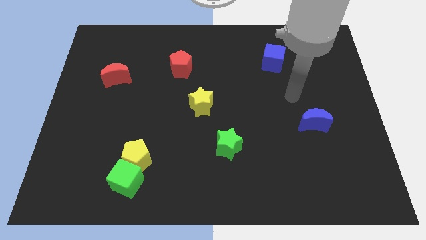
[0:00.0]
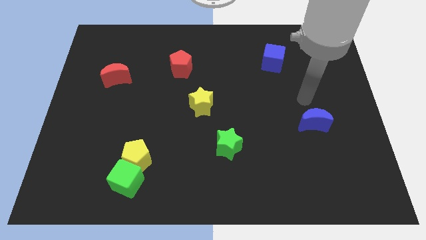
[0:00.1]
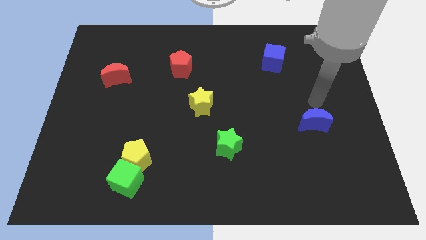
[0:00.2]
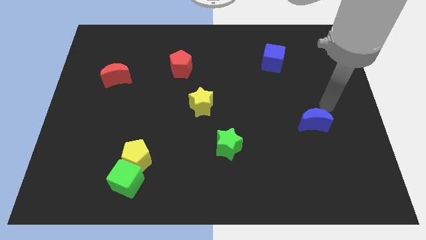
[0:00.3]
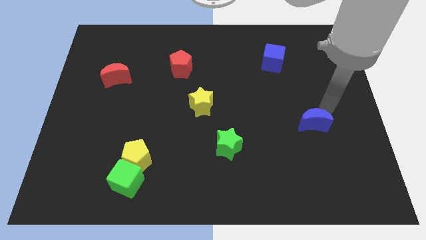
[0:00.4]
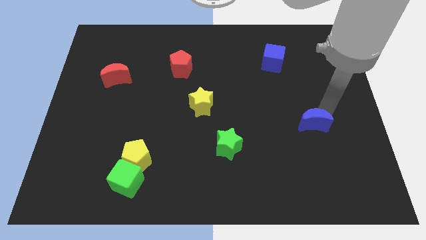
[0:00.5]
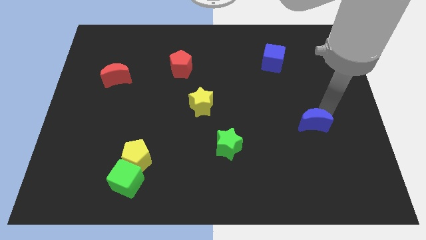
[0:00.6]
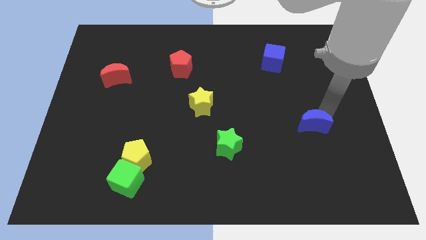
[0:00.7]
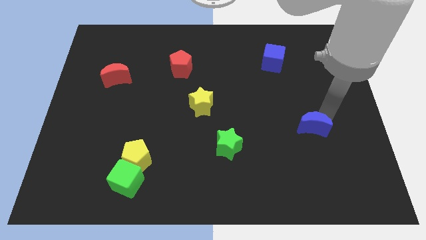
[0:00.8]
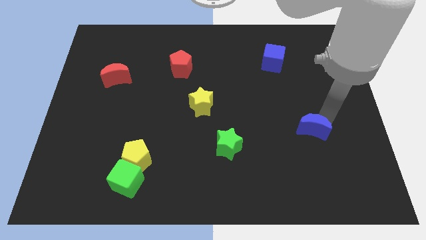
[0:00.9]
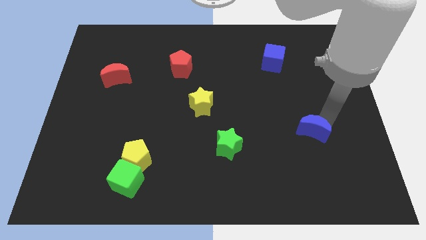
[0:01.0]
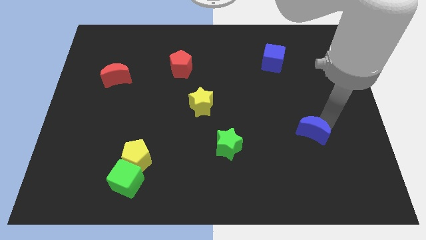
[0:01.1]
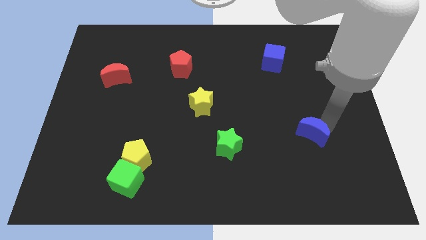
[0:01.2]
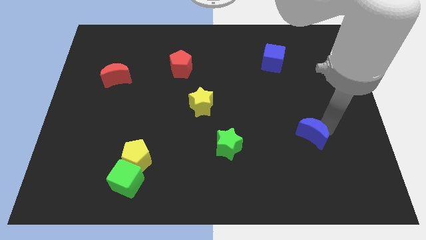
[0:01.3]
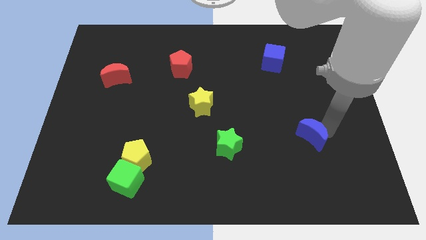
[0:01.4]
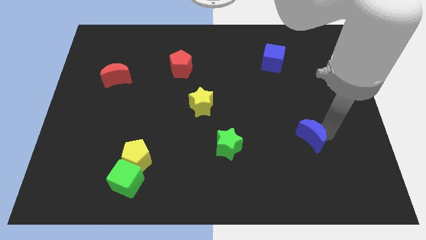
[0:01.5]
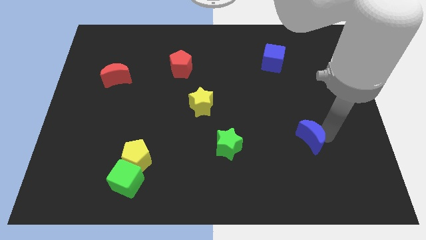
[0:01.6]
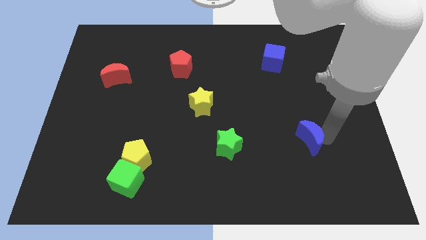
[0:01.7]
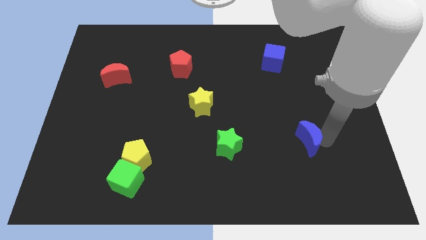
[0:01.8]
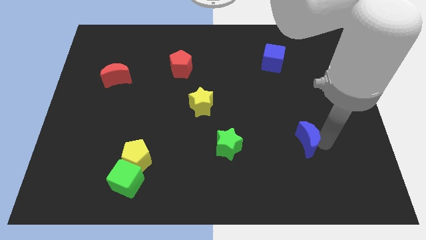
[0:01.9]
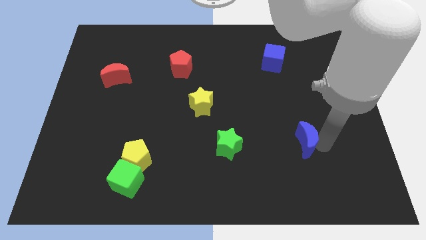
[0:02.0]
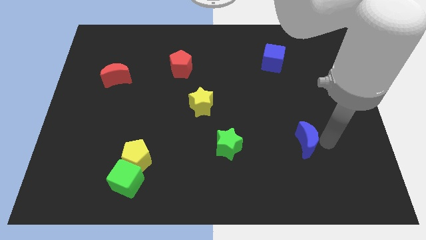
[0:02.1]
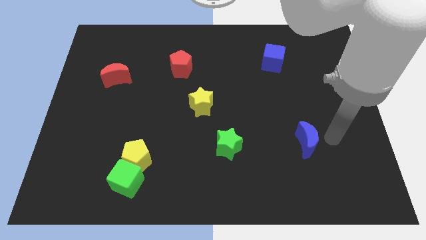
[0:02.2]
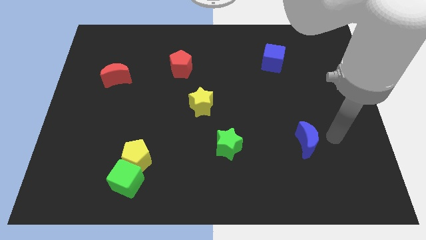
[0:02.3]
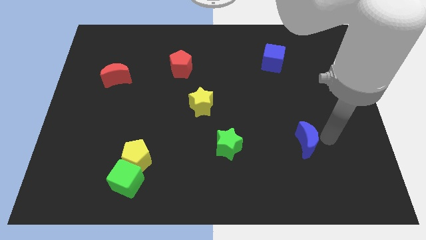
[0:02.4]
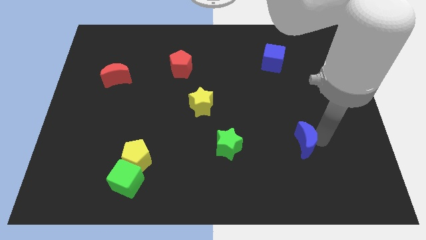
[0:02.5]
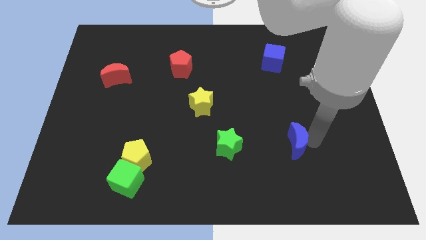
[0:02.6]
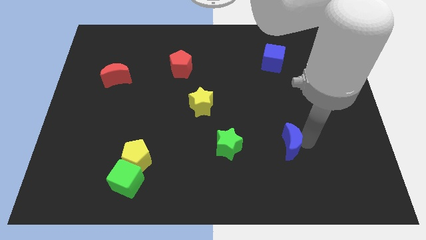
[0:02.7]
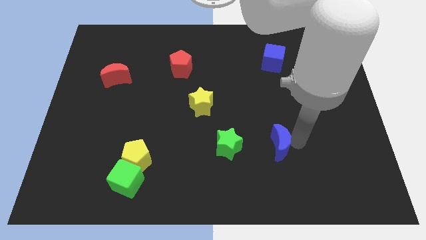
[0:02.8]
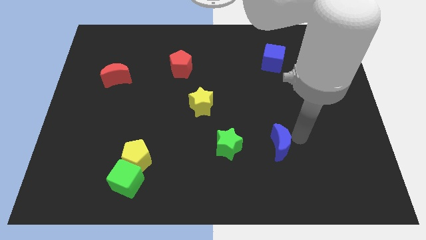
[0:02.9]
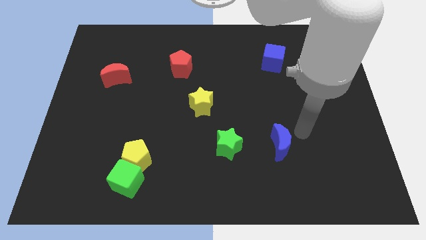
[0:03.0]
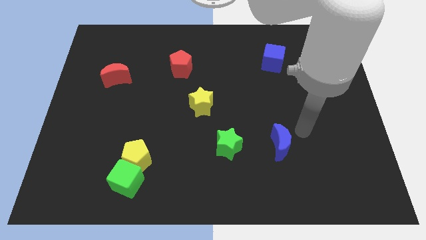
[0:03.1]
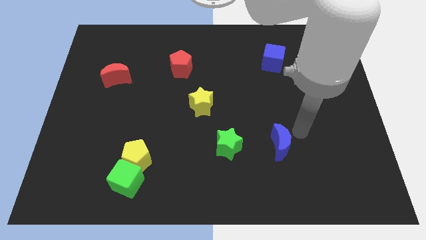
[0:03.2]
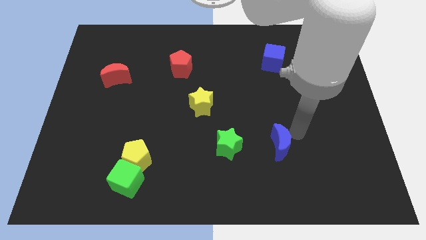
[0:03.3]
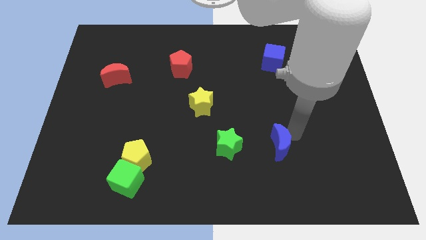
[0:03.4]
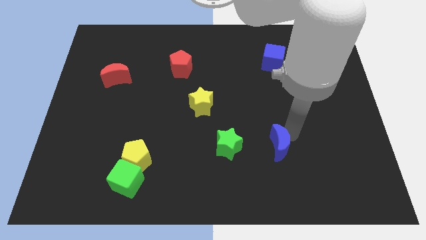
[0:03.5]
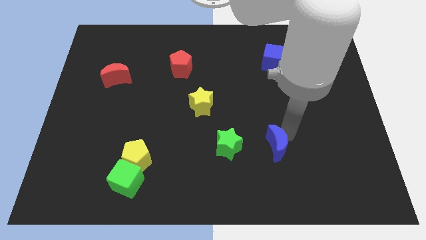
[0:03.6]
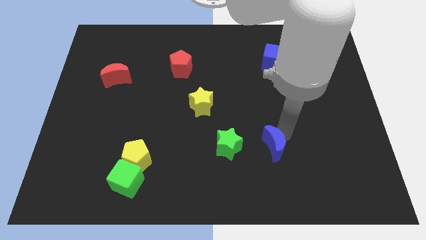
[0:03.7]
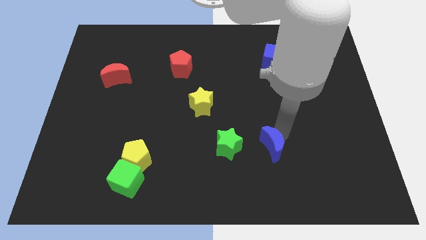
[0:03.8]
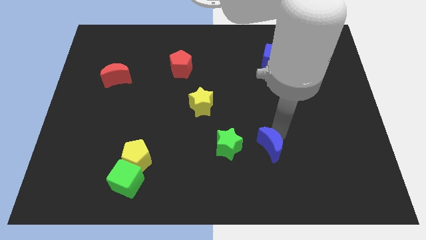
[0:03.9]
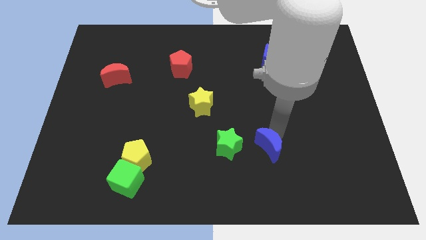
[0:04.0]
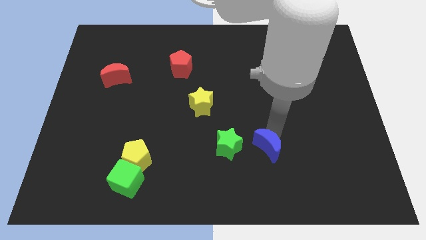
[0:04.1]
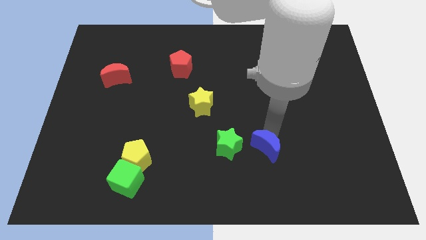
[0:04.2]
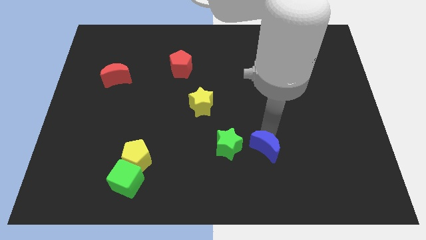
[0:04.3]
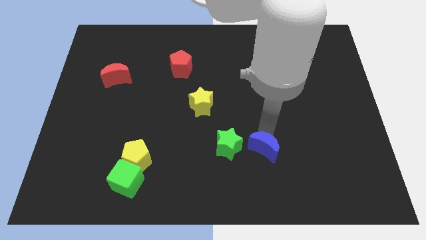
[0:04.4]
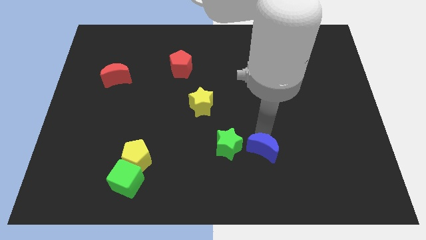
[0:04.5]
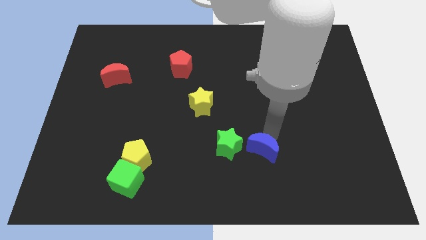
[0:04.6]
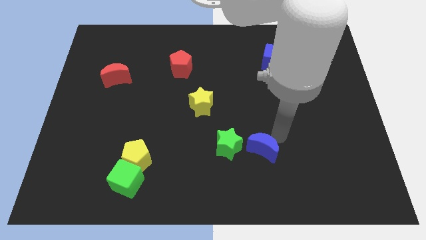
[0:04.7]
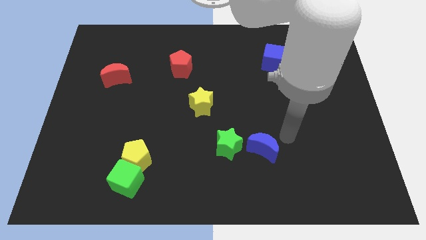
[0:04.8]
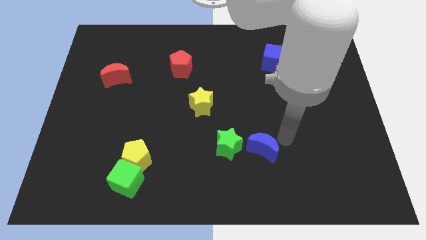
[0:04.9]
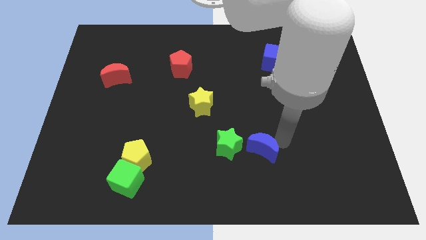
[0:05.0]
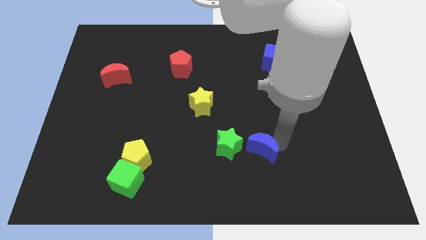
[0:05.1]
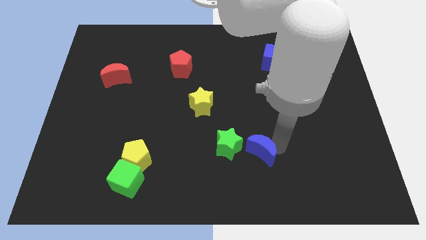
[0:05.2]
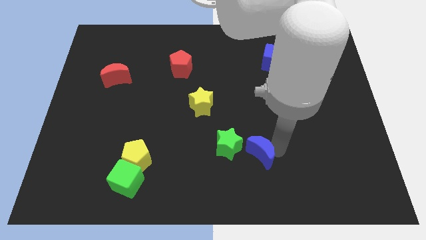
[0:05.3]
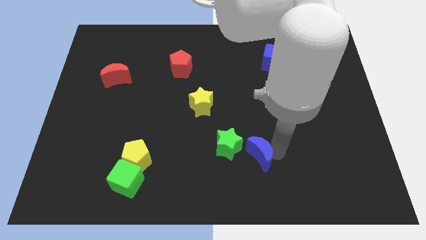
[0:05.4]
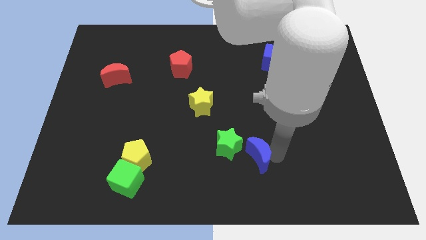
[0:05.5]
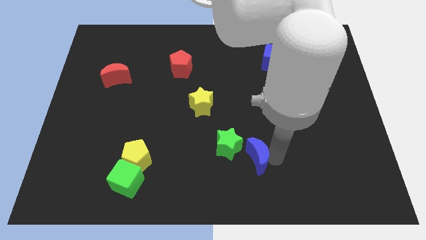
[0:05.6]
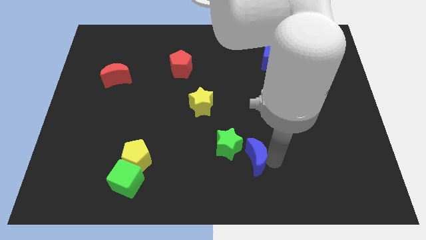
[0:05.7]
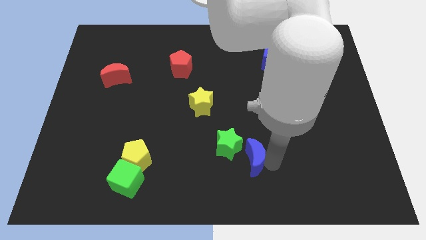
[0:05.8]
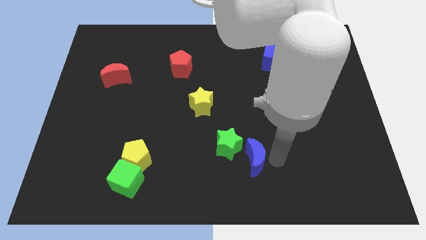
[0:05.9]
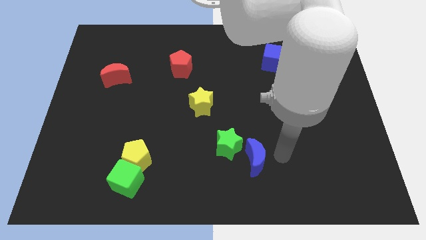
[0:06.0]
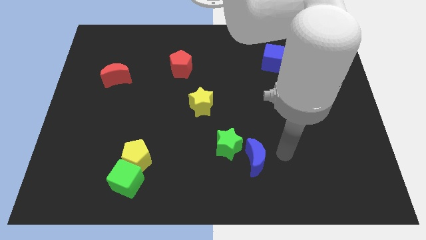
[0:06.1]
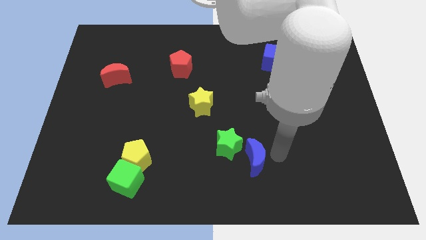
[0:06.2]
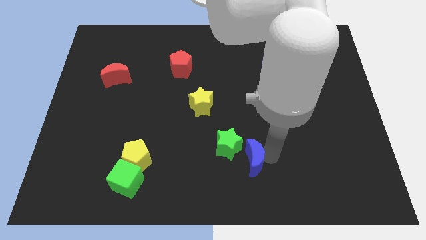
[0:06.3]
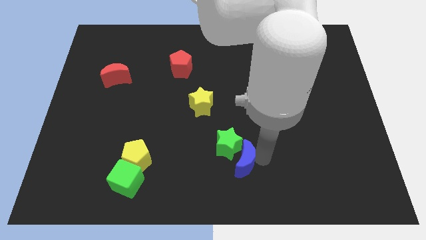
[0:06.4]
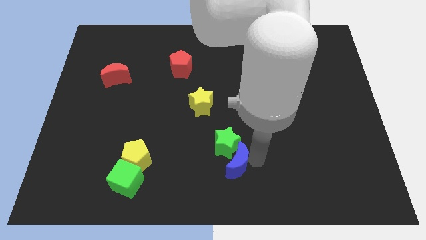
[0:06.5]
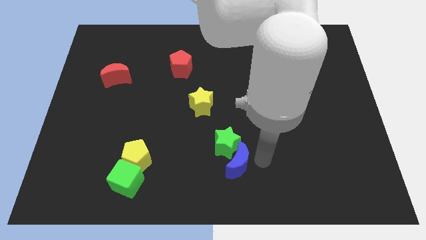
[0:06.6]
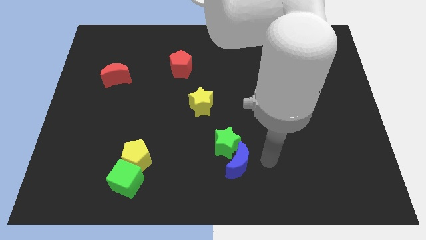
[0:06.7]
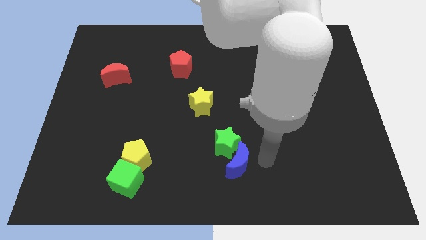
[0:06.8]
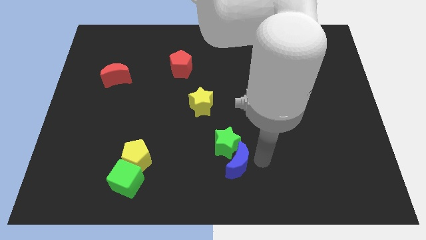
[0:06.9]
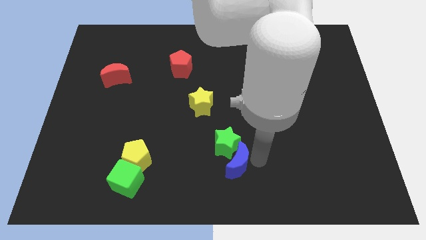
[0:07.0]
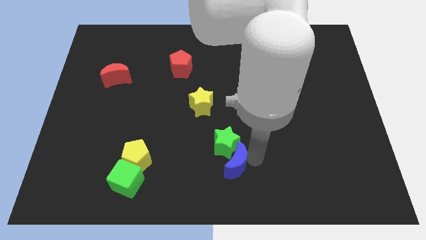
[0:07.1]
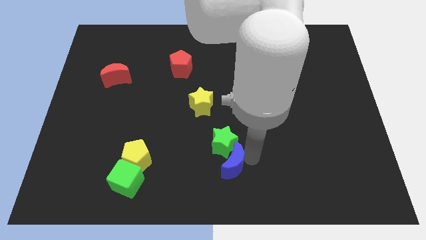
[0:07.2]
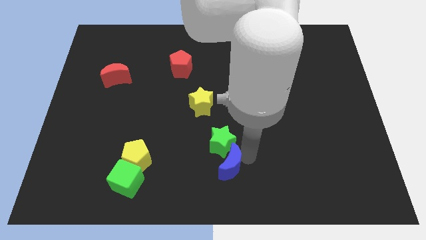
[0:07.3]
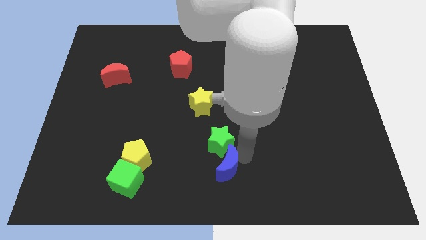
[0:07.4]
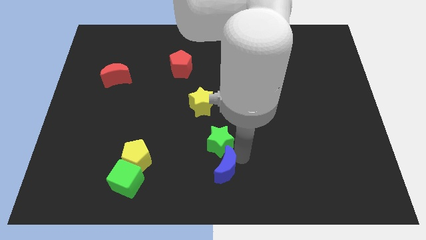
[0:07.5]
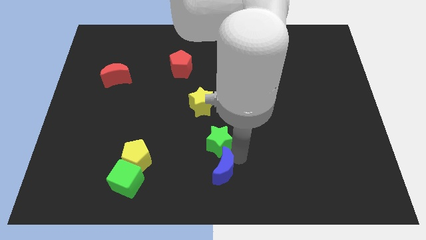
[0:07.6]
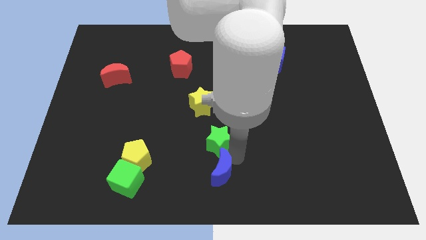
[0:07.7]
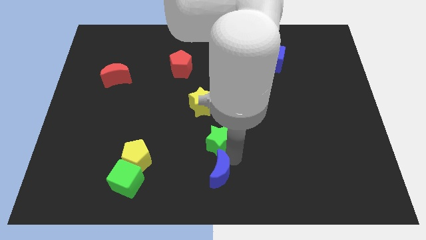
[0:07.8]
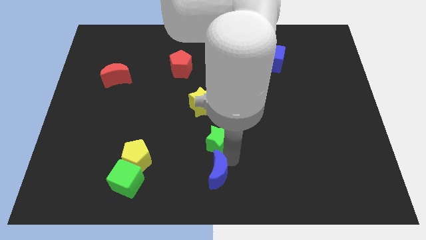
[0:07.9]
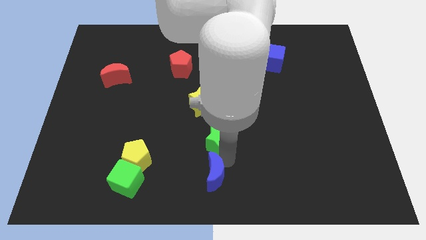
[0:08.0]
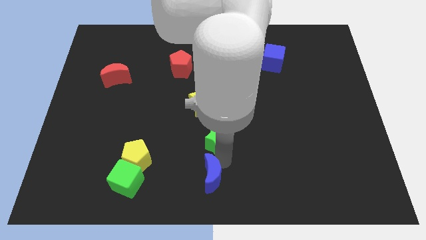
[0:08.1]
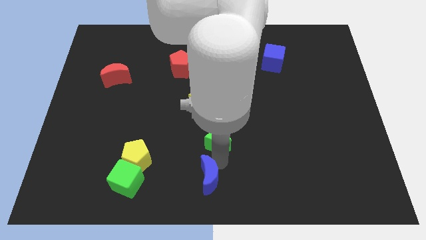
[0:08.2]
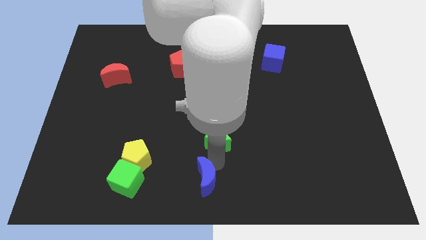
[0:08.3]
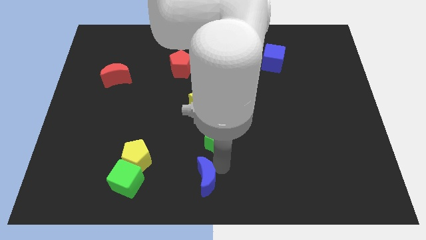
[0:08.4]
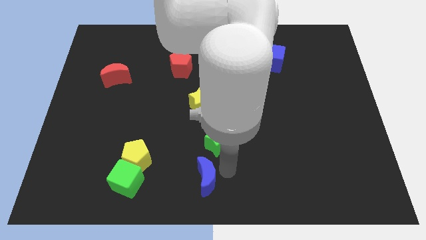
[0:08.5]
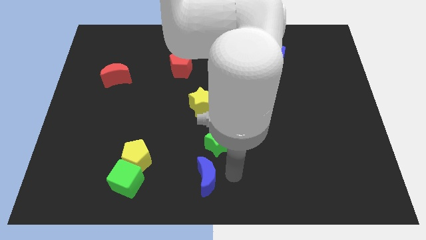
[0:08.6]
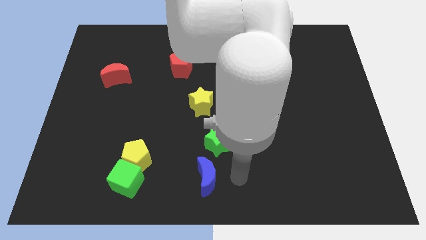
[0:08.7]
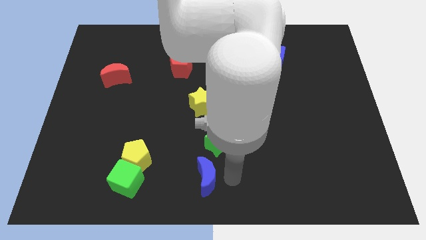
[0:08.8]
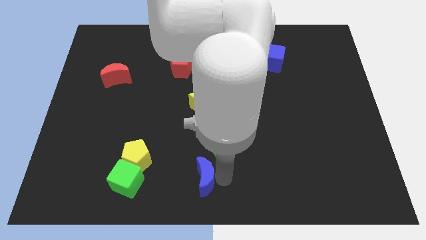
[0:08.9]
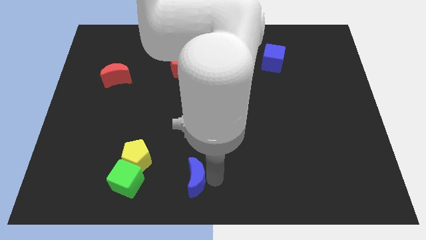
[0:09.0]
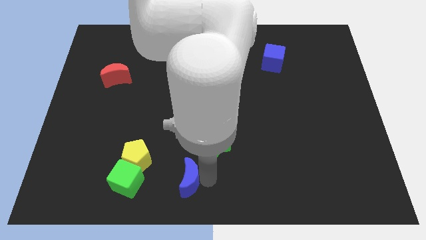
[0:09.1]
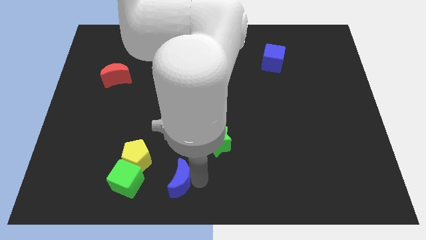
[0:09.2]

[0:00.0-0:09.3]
put the blue moon to the bottom right of the yellow pentagon
